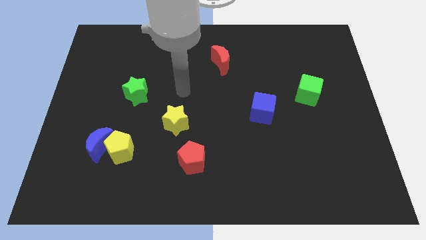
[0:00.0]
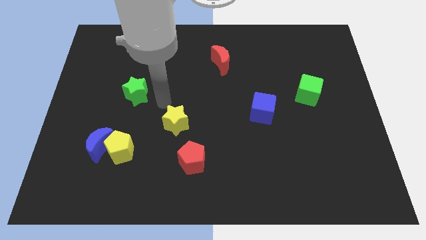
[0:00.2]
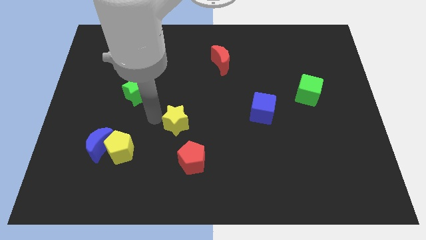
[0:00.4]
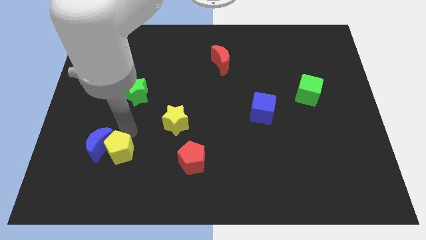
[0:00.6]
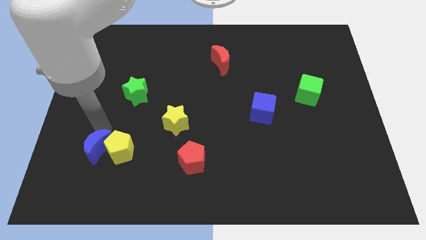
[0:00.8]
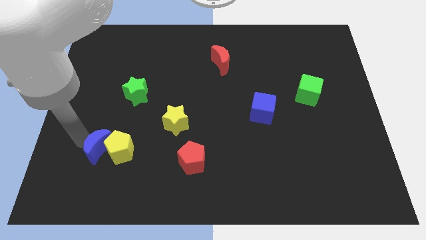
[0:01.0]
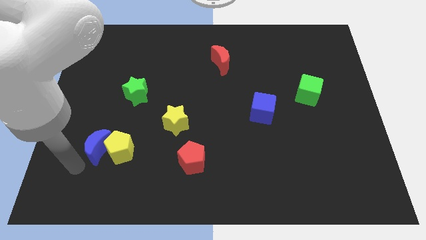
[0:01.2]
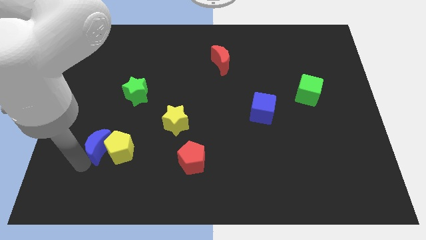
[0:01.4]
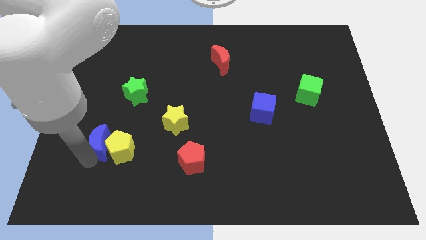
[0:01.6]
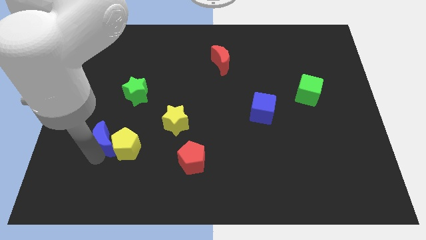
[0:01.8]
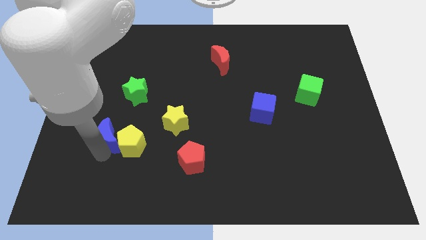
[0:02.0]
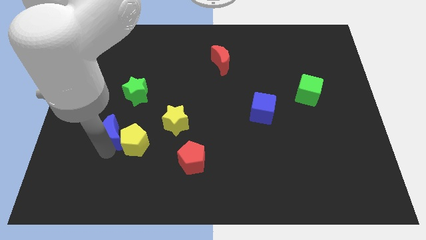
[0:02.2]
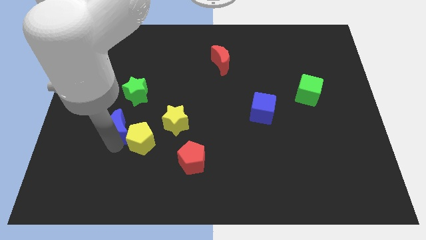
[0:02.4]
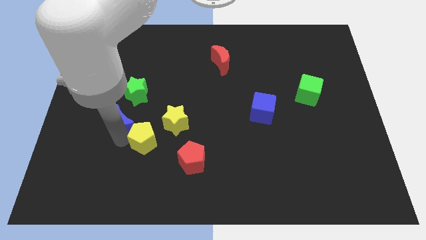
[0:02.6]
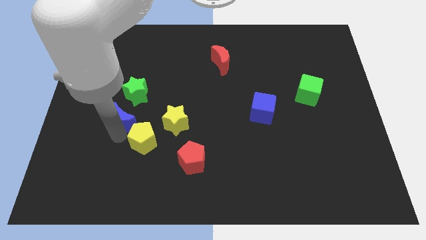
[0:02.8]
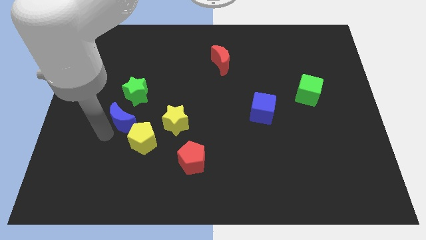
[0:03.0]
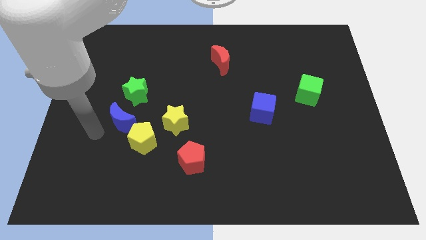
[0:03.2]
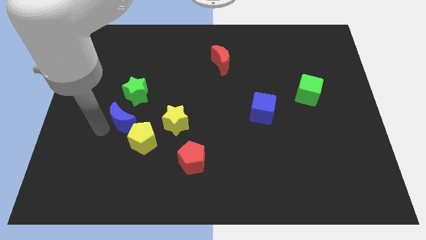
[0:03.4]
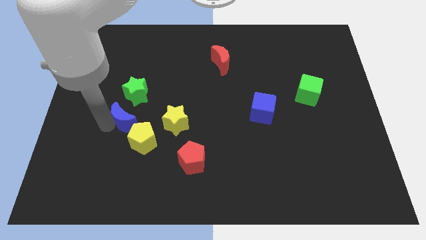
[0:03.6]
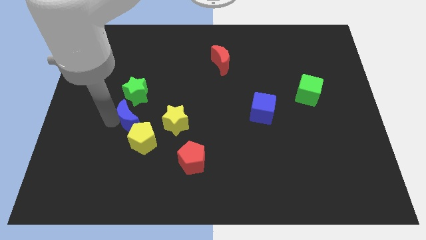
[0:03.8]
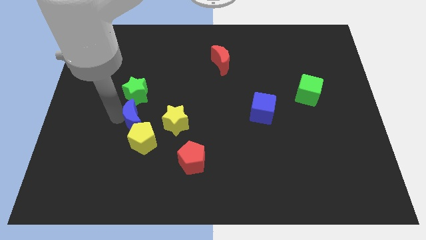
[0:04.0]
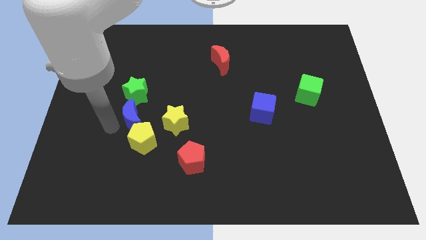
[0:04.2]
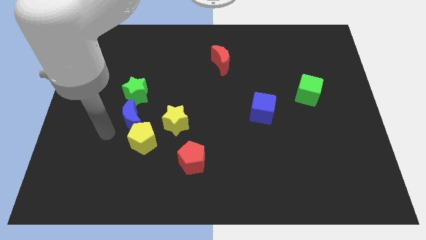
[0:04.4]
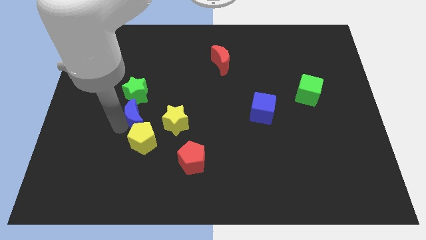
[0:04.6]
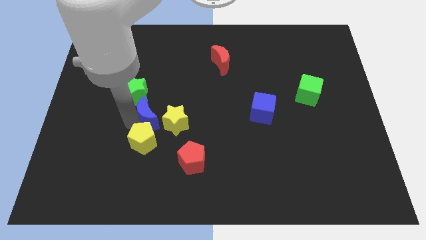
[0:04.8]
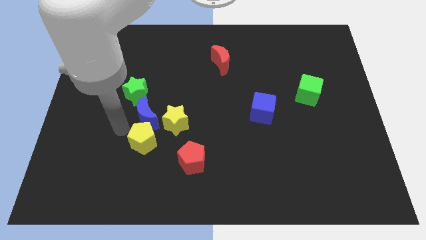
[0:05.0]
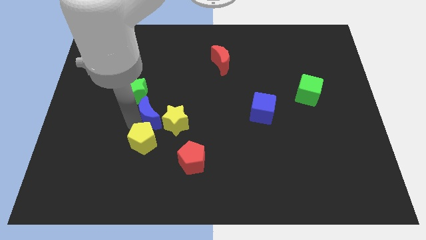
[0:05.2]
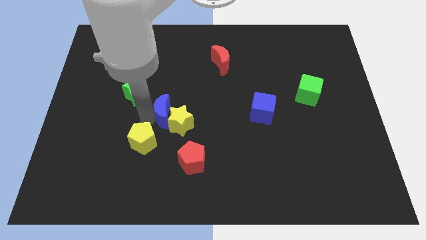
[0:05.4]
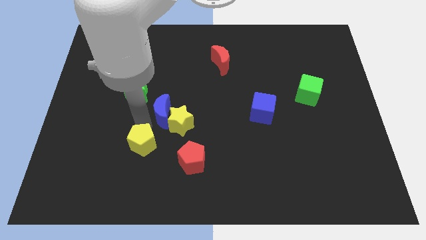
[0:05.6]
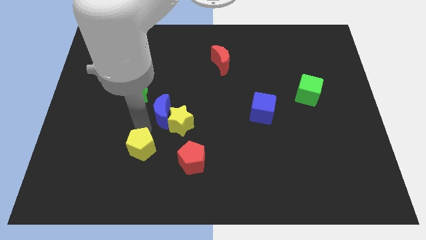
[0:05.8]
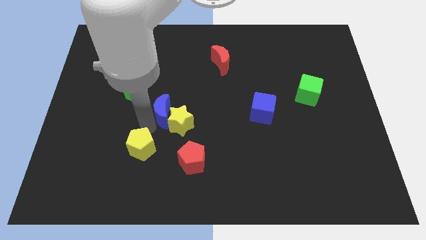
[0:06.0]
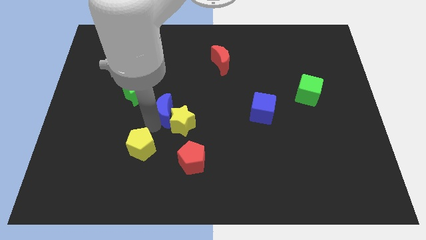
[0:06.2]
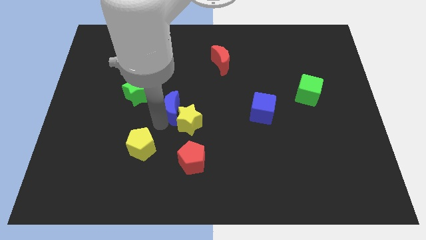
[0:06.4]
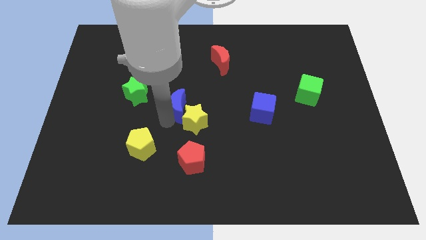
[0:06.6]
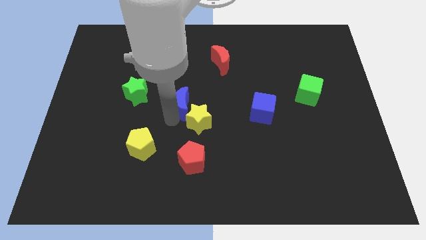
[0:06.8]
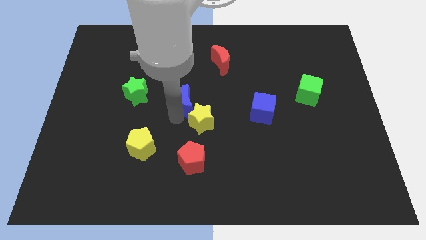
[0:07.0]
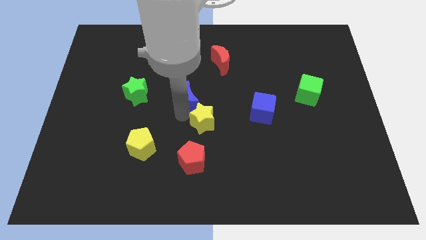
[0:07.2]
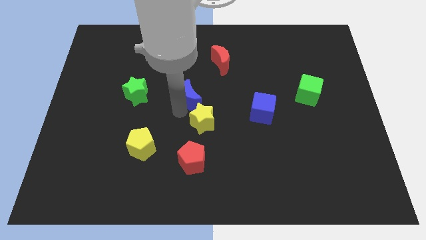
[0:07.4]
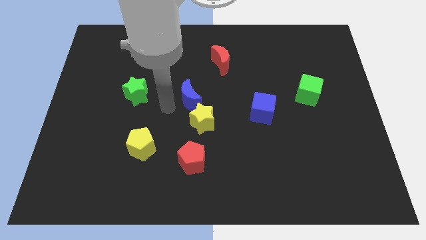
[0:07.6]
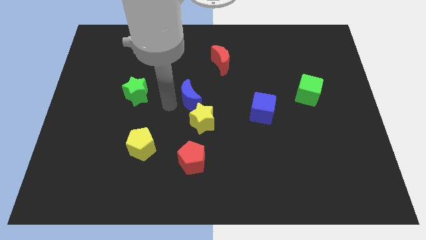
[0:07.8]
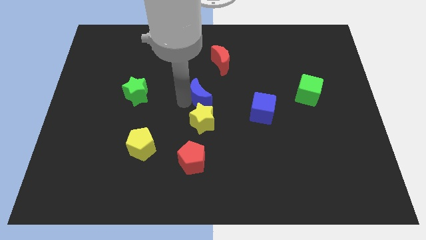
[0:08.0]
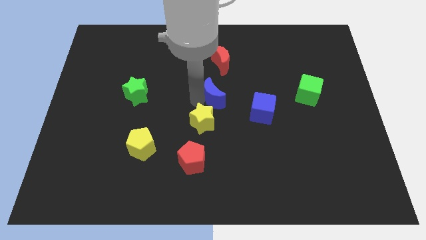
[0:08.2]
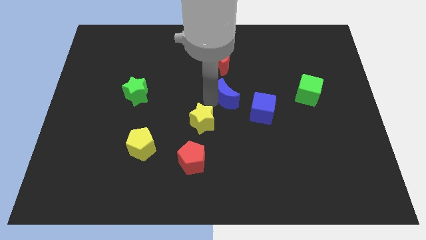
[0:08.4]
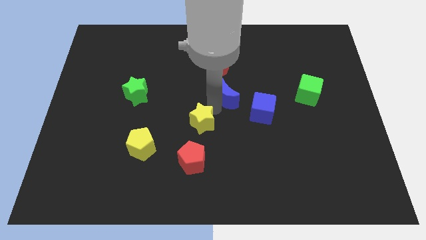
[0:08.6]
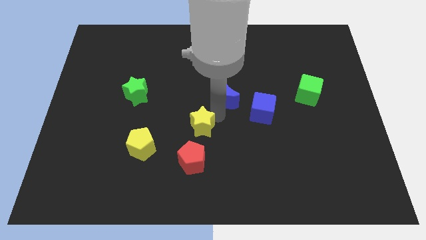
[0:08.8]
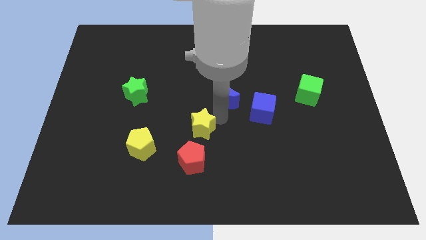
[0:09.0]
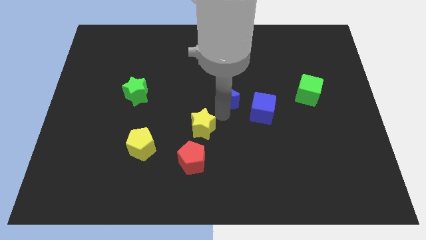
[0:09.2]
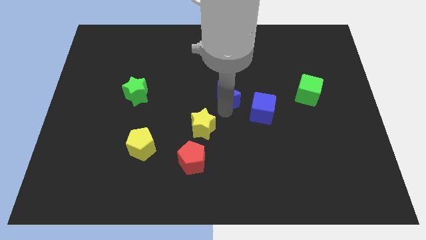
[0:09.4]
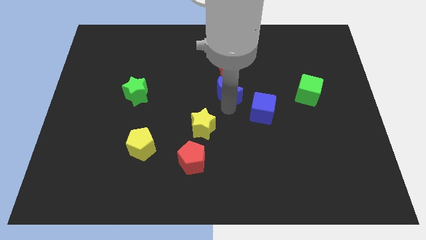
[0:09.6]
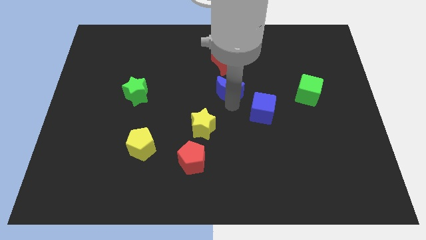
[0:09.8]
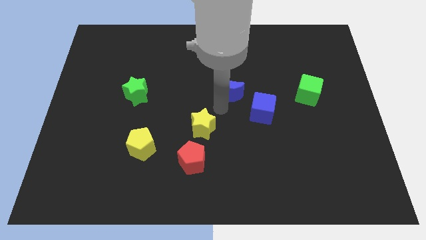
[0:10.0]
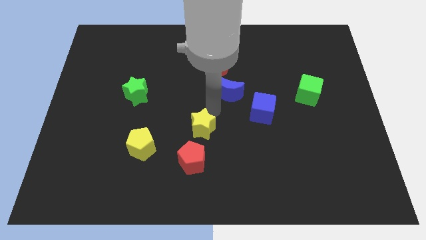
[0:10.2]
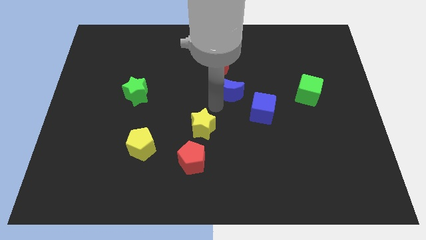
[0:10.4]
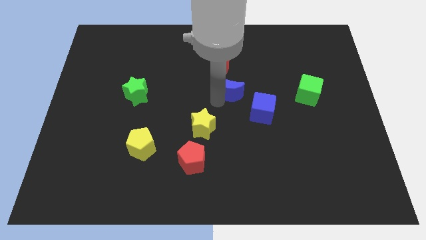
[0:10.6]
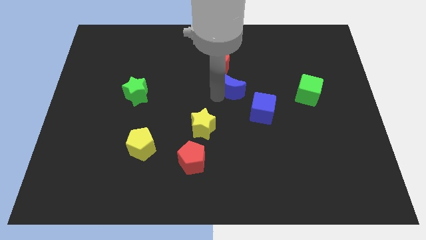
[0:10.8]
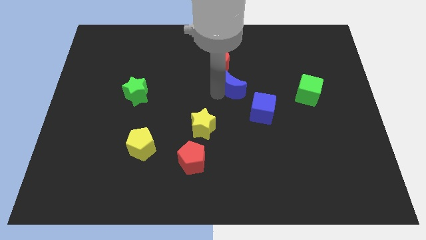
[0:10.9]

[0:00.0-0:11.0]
slide the blue moon to the bottom right of the red moon

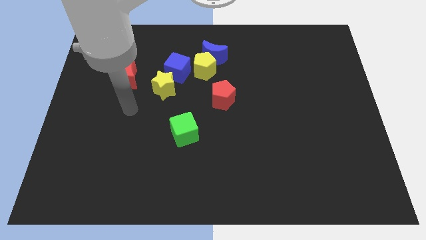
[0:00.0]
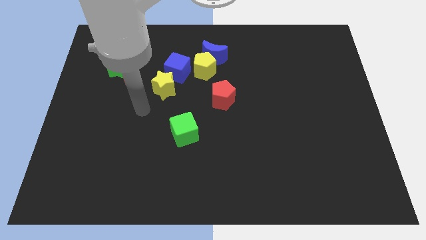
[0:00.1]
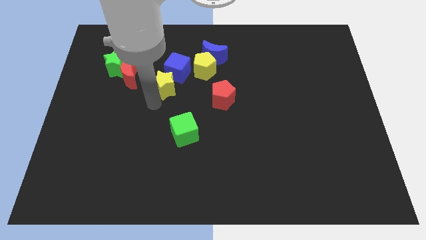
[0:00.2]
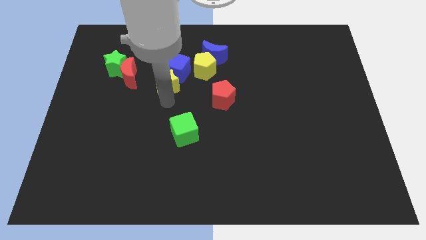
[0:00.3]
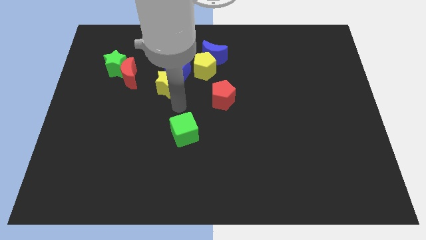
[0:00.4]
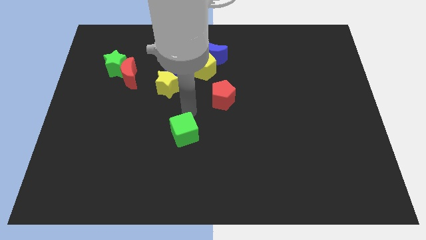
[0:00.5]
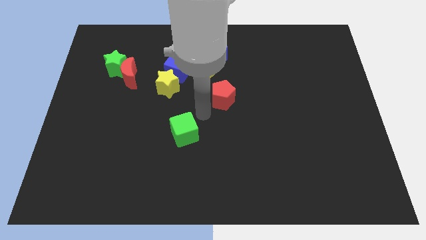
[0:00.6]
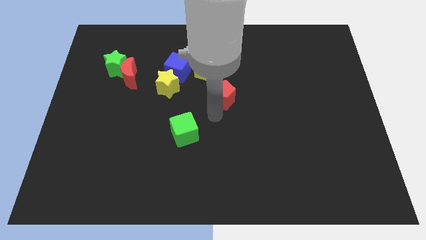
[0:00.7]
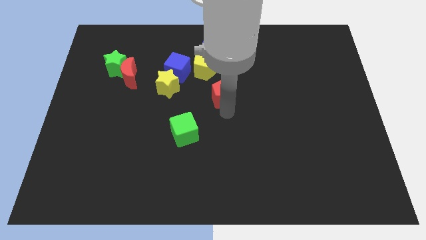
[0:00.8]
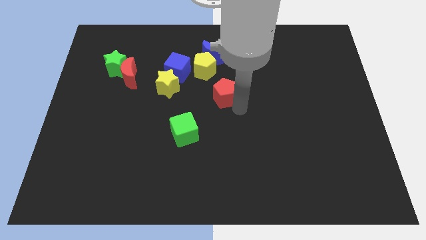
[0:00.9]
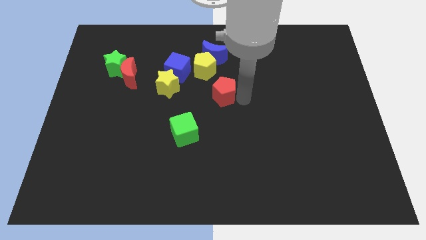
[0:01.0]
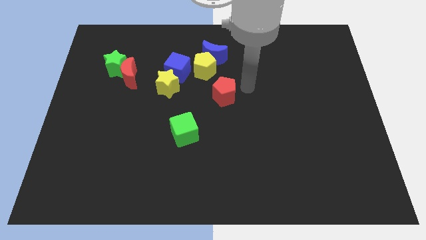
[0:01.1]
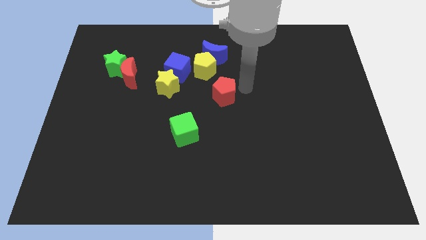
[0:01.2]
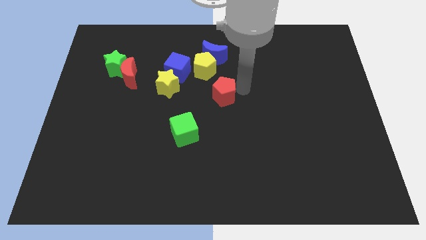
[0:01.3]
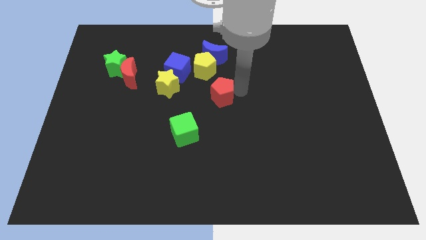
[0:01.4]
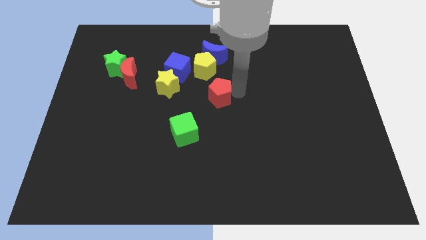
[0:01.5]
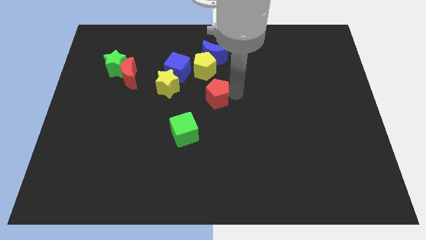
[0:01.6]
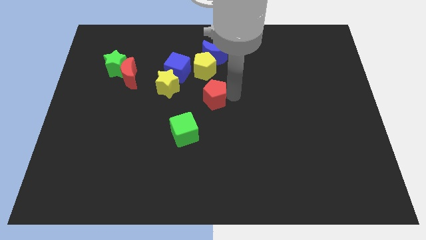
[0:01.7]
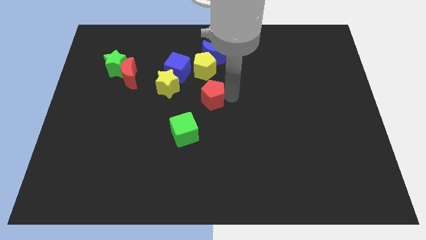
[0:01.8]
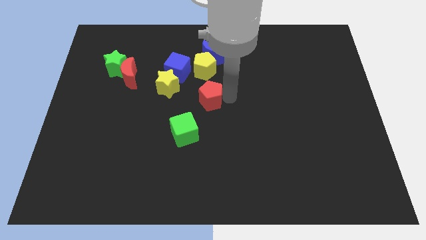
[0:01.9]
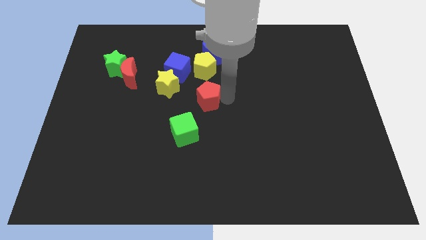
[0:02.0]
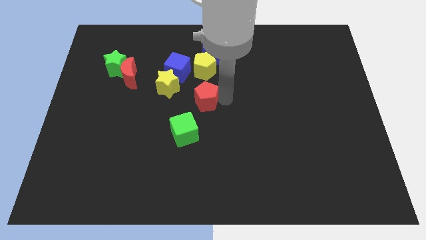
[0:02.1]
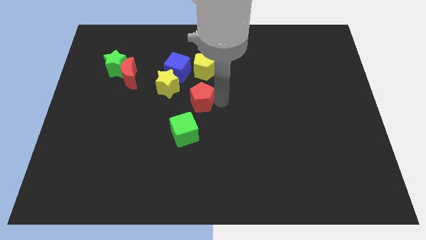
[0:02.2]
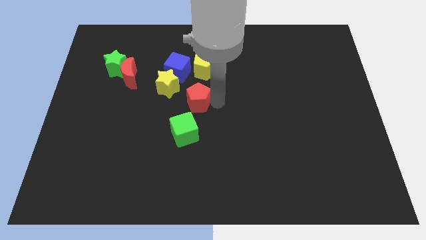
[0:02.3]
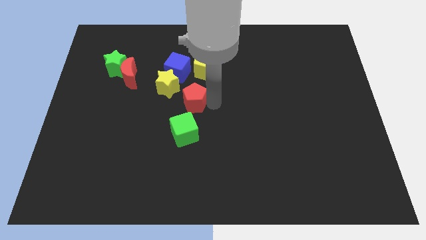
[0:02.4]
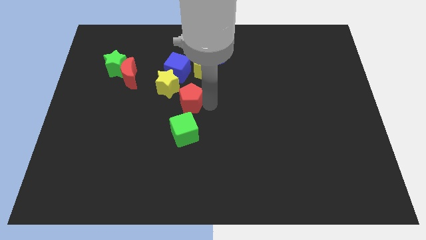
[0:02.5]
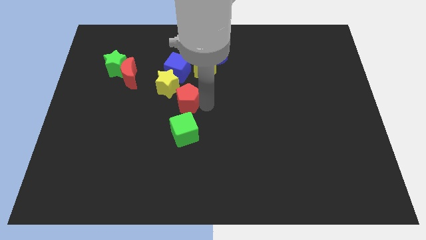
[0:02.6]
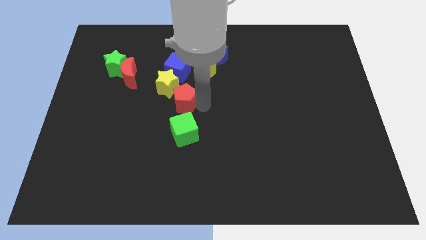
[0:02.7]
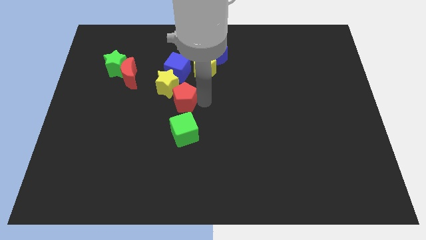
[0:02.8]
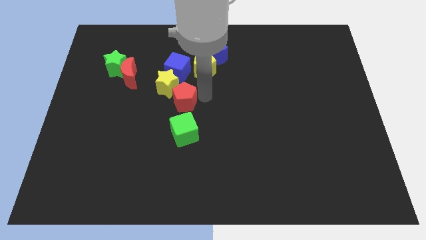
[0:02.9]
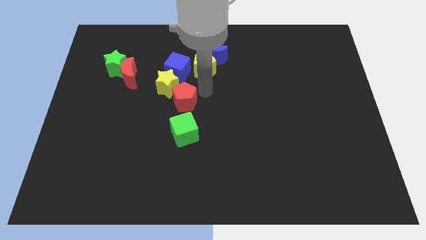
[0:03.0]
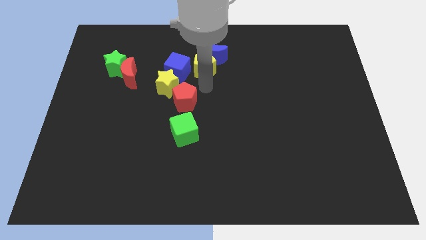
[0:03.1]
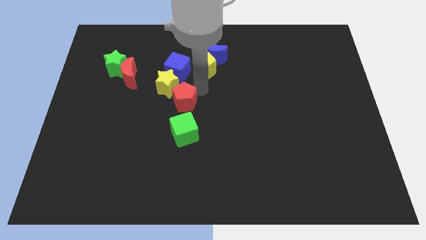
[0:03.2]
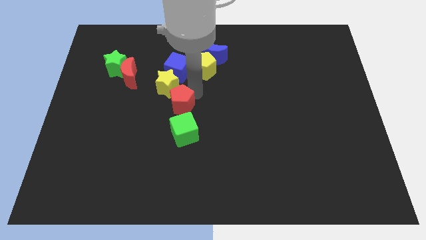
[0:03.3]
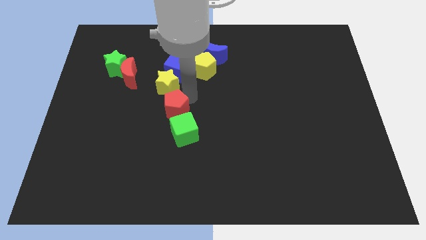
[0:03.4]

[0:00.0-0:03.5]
put the red pentagon to the top left side of the green cube
